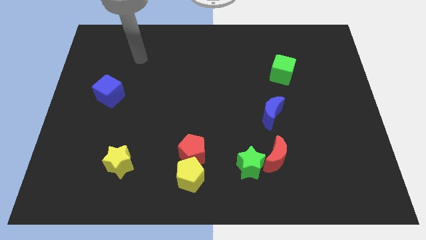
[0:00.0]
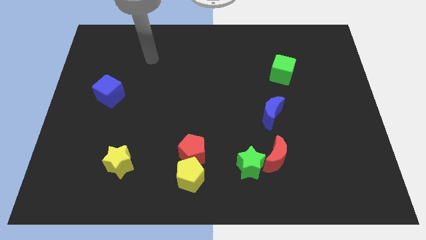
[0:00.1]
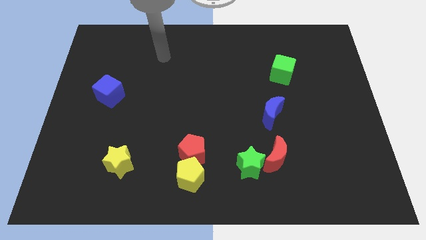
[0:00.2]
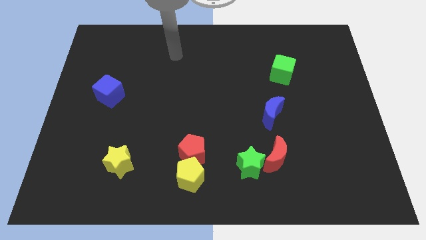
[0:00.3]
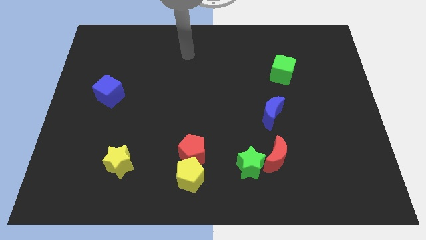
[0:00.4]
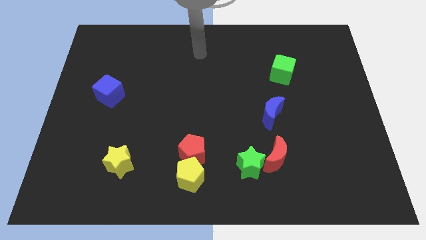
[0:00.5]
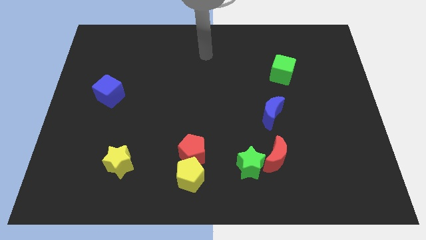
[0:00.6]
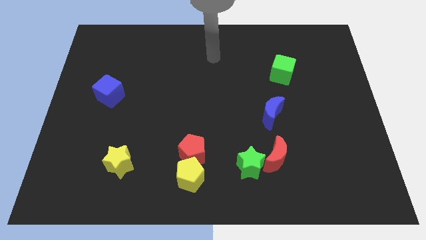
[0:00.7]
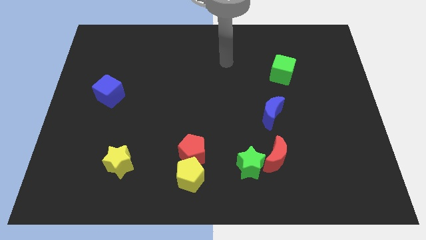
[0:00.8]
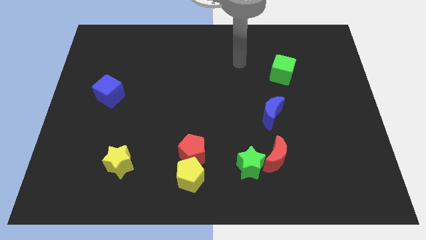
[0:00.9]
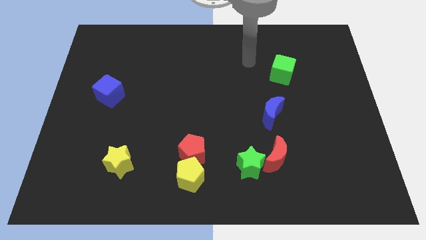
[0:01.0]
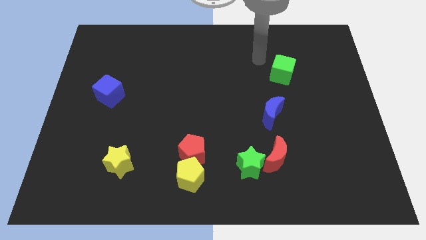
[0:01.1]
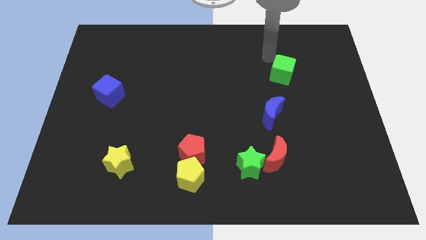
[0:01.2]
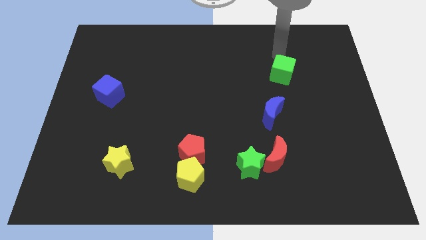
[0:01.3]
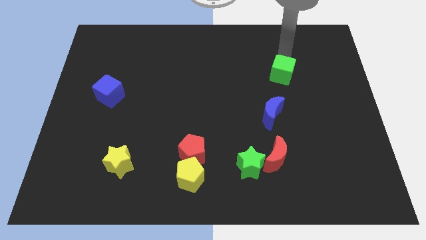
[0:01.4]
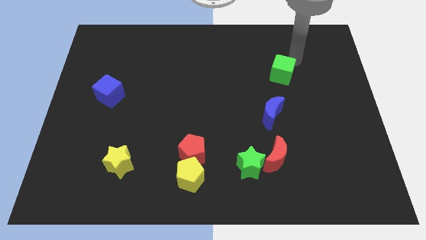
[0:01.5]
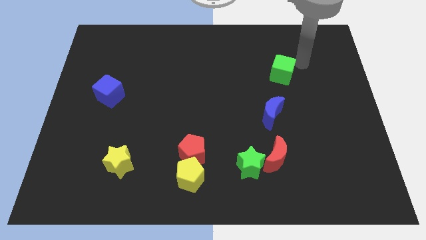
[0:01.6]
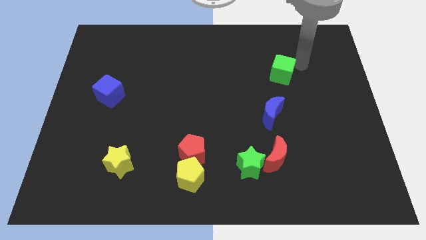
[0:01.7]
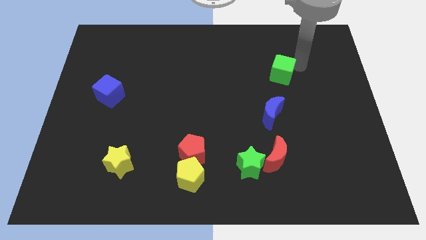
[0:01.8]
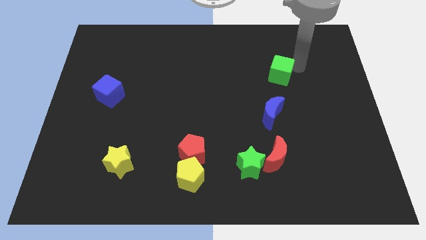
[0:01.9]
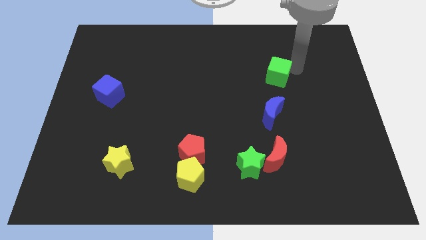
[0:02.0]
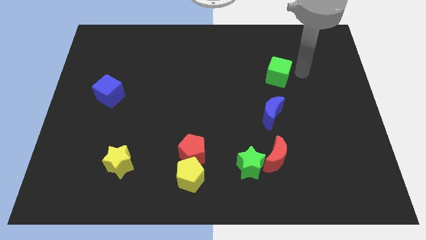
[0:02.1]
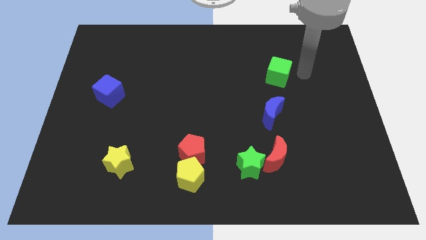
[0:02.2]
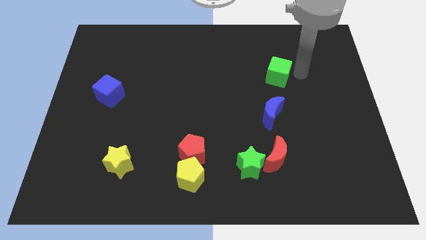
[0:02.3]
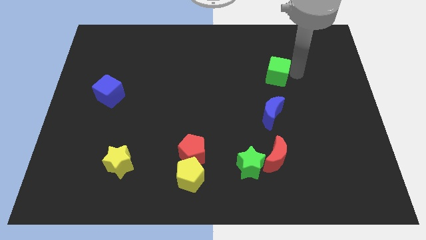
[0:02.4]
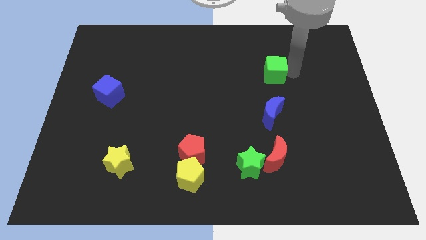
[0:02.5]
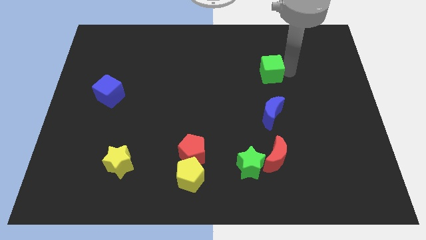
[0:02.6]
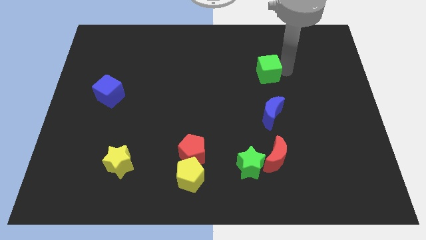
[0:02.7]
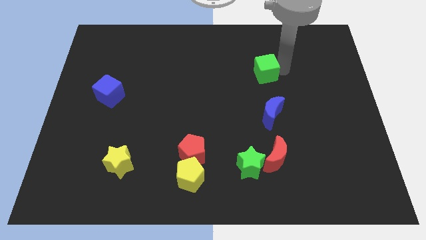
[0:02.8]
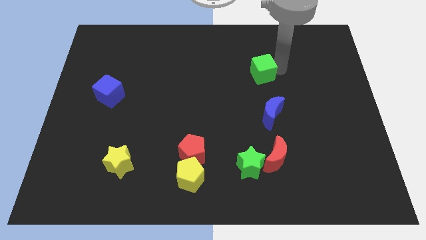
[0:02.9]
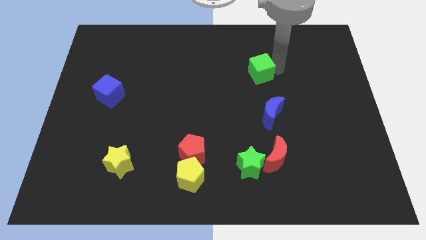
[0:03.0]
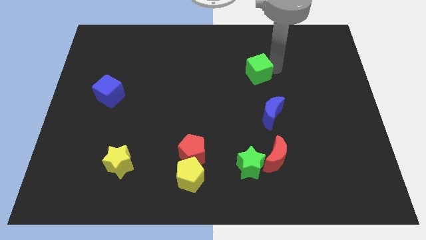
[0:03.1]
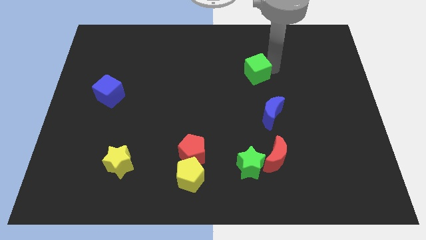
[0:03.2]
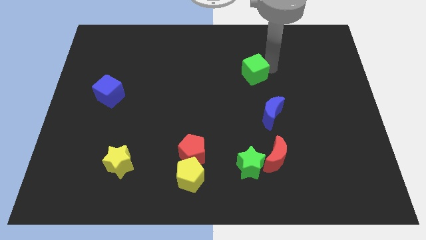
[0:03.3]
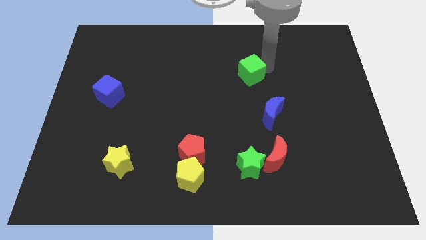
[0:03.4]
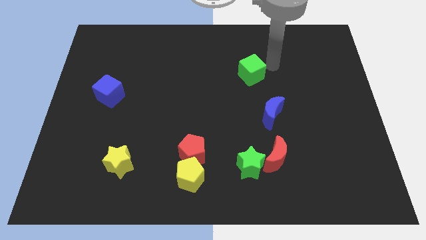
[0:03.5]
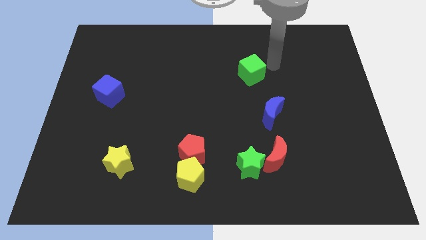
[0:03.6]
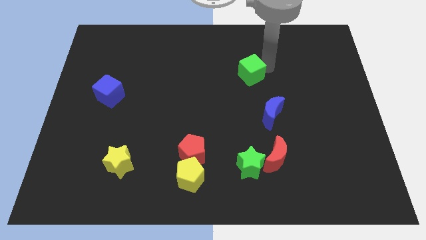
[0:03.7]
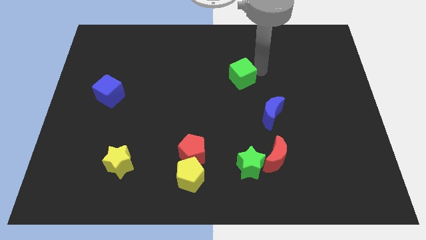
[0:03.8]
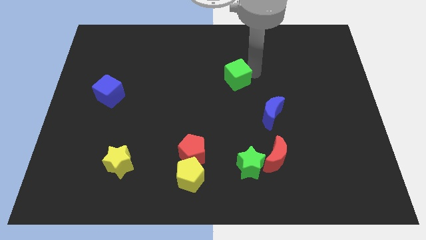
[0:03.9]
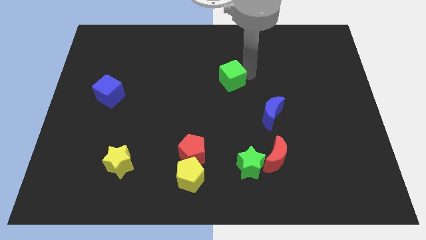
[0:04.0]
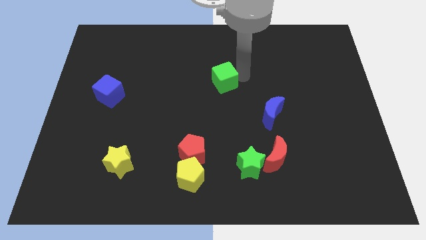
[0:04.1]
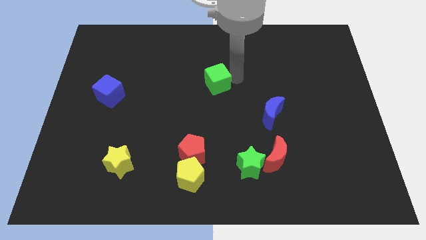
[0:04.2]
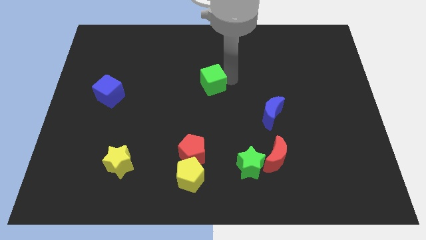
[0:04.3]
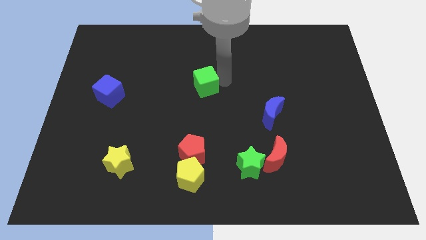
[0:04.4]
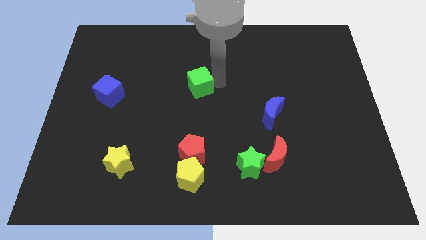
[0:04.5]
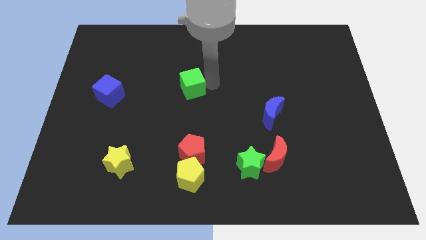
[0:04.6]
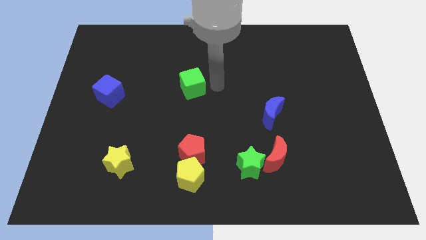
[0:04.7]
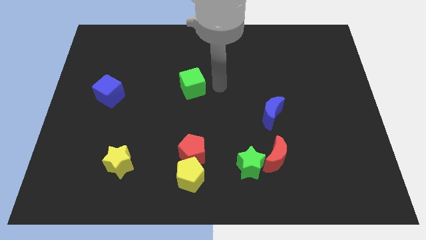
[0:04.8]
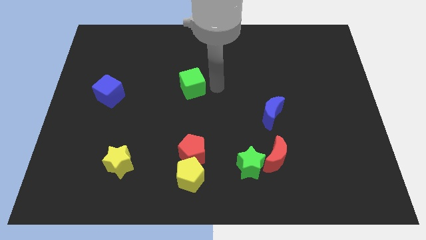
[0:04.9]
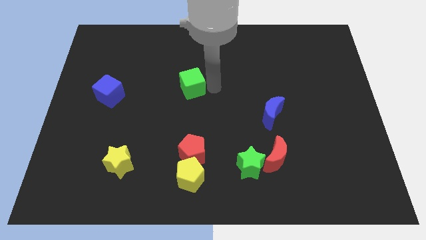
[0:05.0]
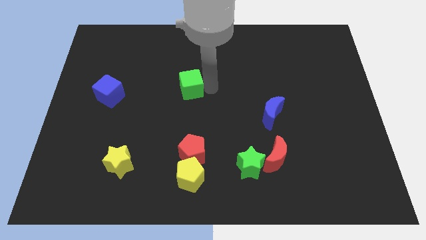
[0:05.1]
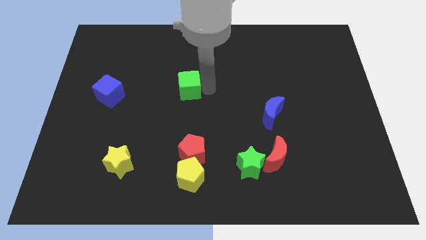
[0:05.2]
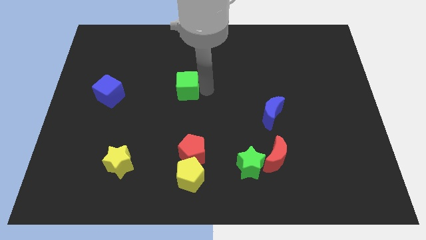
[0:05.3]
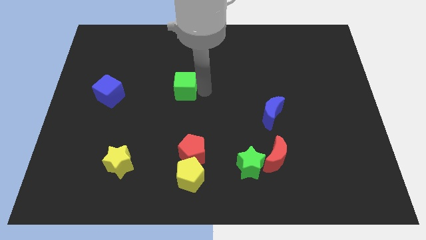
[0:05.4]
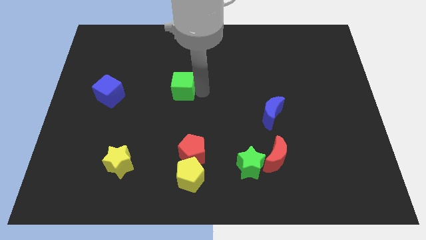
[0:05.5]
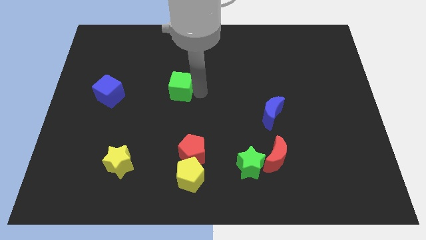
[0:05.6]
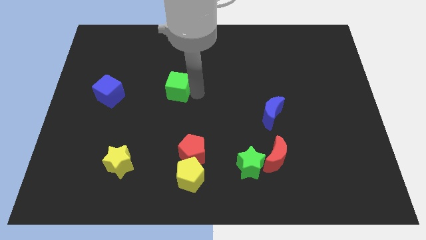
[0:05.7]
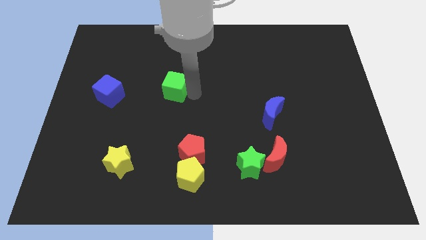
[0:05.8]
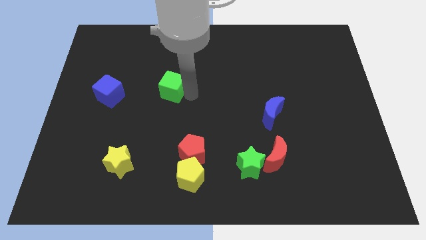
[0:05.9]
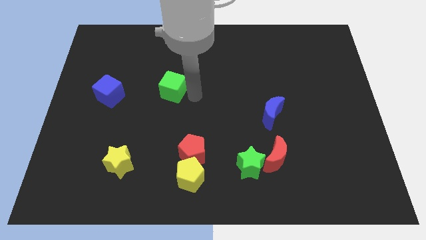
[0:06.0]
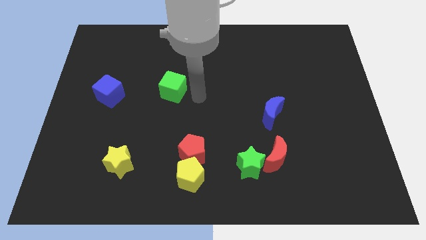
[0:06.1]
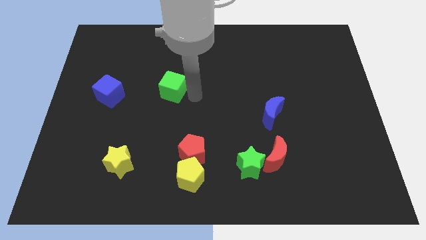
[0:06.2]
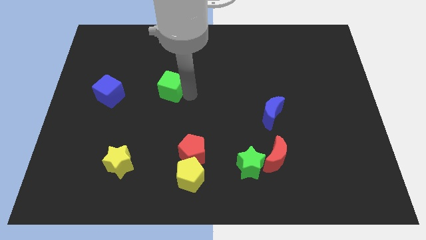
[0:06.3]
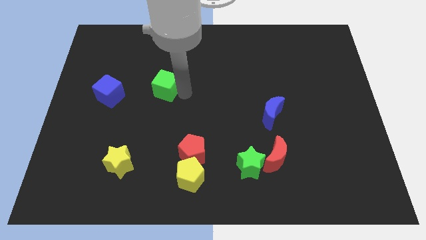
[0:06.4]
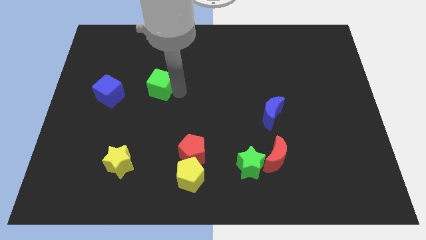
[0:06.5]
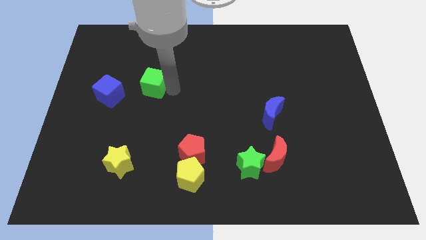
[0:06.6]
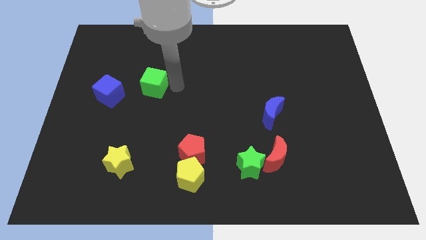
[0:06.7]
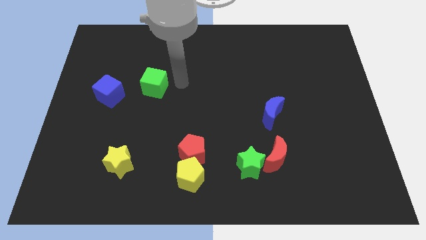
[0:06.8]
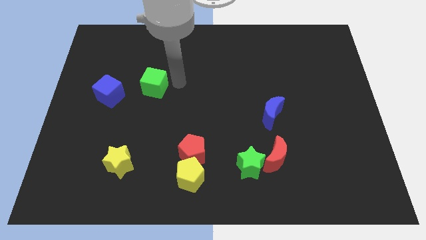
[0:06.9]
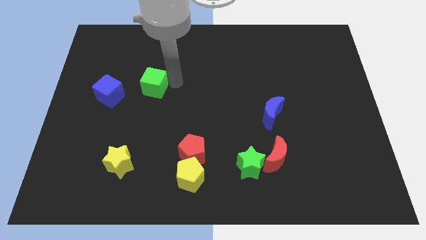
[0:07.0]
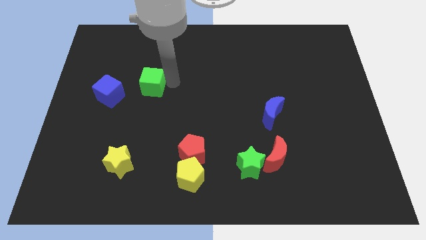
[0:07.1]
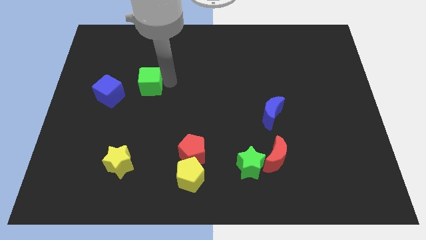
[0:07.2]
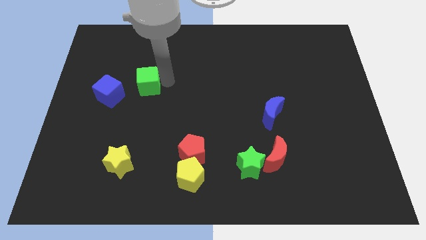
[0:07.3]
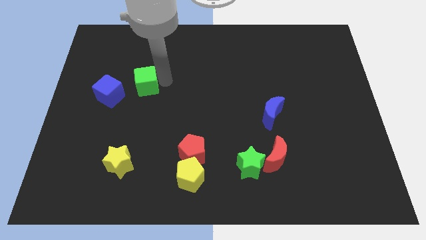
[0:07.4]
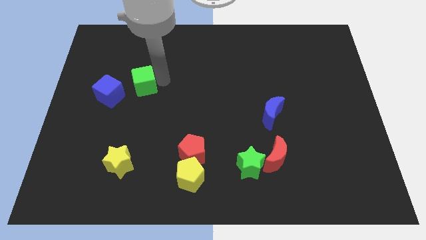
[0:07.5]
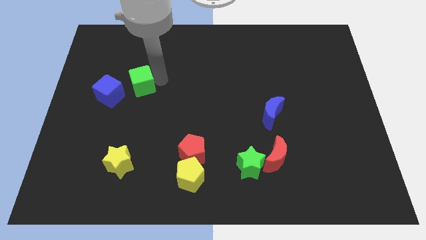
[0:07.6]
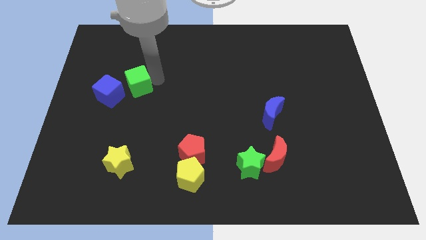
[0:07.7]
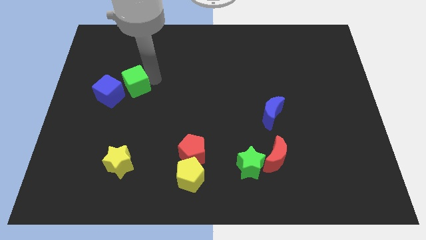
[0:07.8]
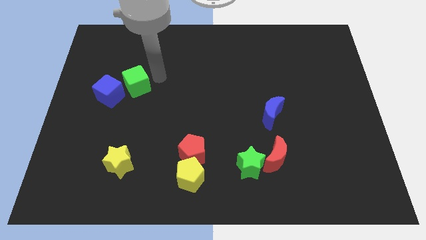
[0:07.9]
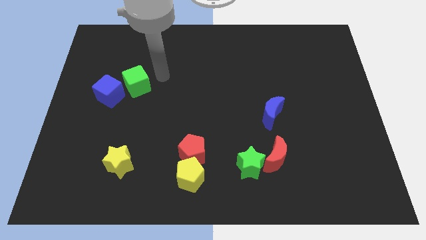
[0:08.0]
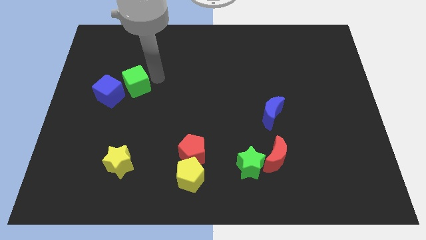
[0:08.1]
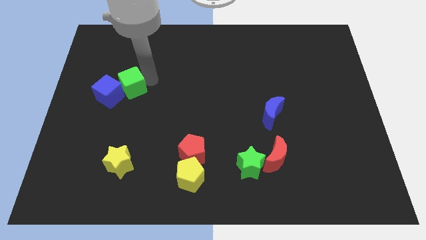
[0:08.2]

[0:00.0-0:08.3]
move the green cube to the blue cube
